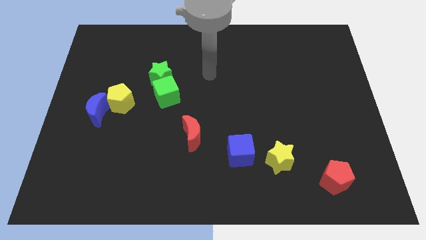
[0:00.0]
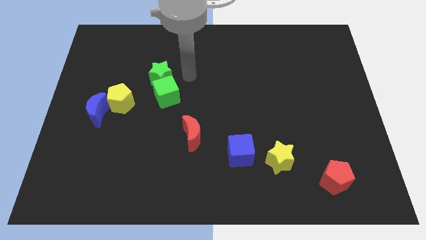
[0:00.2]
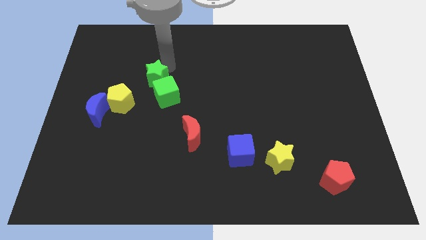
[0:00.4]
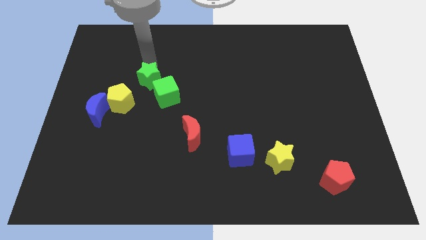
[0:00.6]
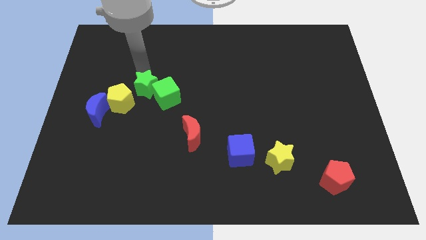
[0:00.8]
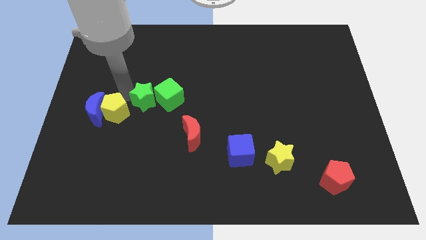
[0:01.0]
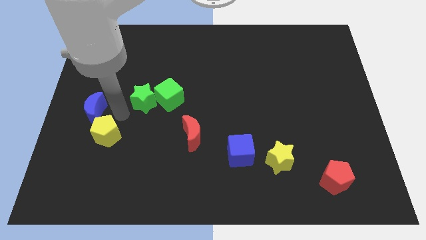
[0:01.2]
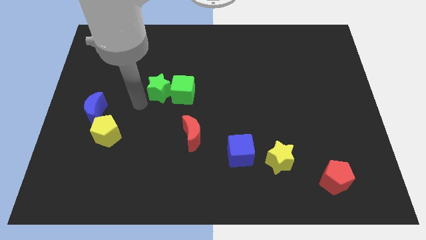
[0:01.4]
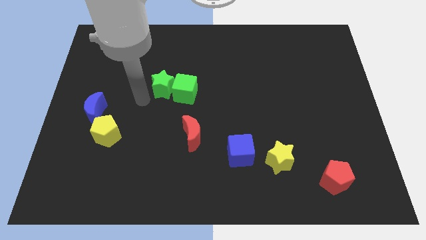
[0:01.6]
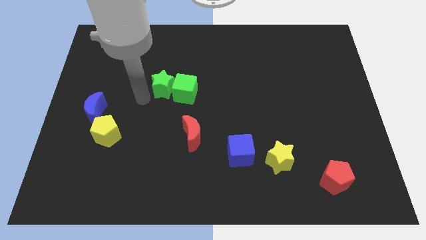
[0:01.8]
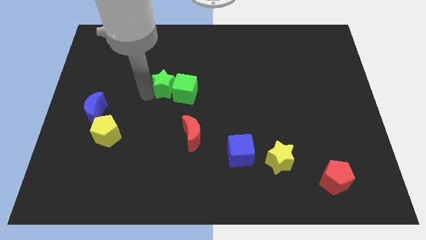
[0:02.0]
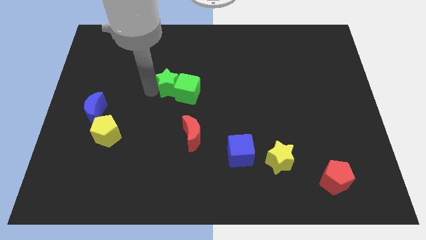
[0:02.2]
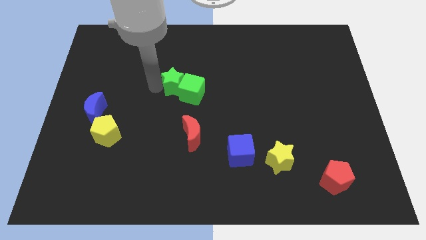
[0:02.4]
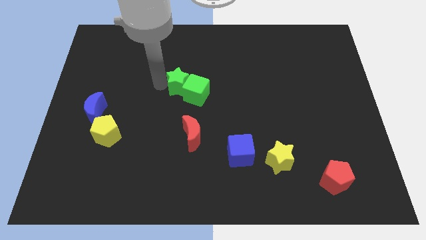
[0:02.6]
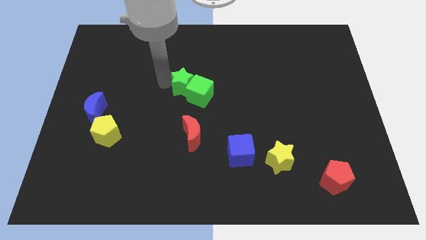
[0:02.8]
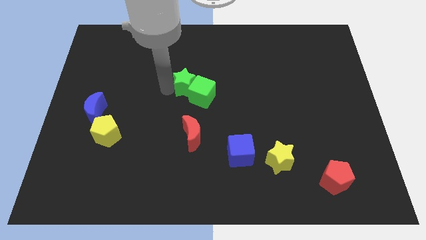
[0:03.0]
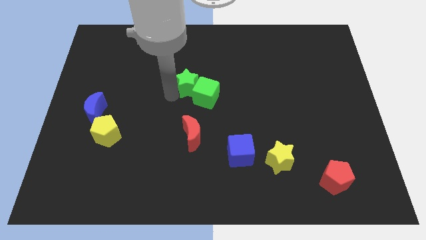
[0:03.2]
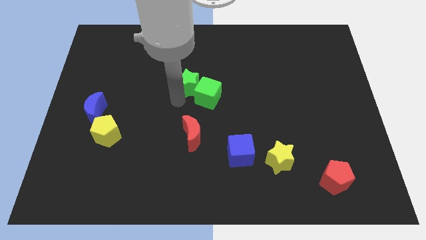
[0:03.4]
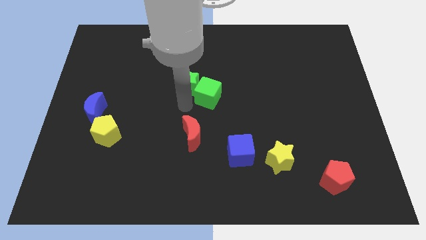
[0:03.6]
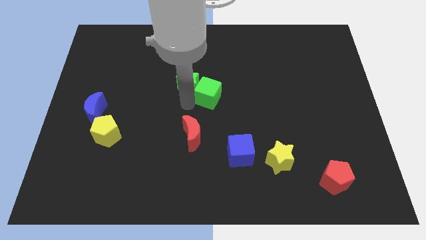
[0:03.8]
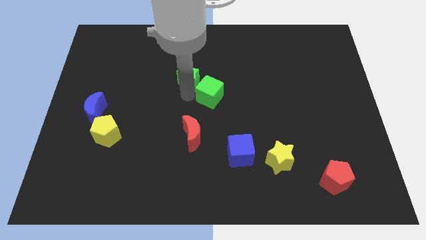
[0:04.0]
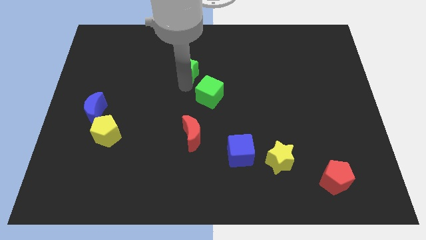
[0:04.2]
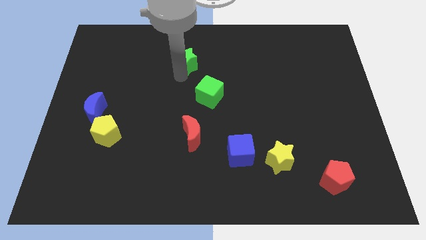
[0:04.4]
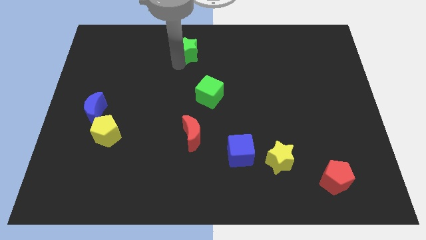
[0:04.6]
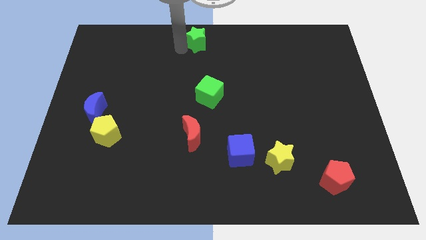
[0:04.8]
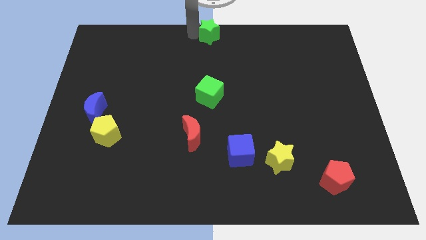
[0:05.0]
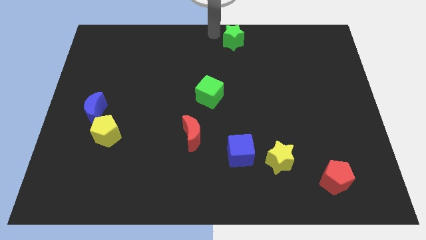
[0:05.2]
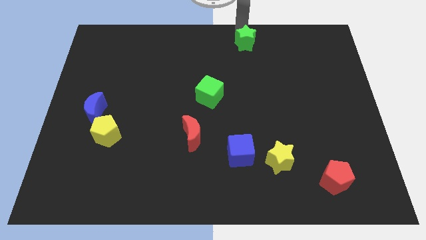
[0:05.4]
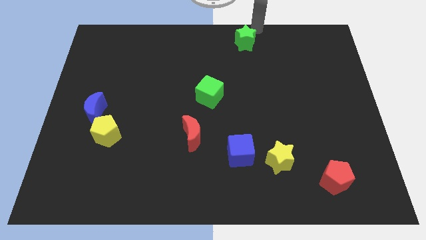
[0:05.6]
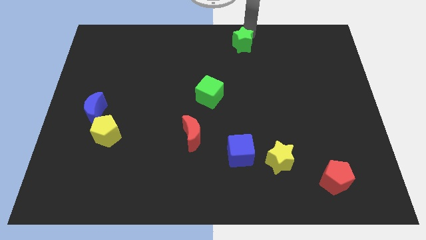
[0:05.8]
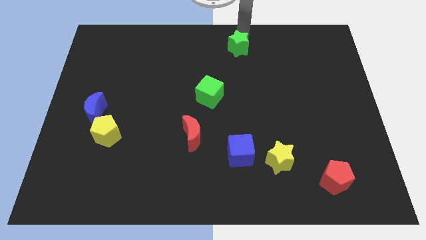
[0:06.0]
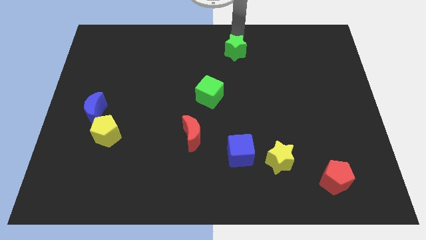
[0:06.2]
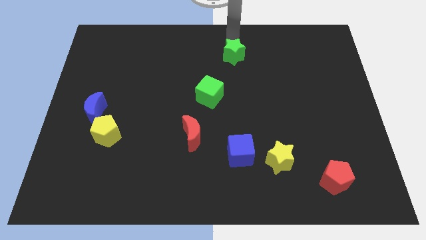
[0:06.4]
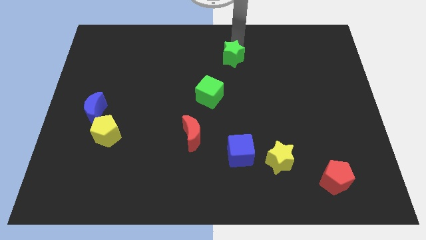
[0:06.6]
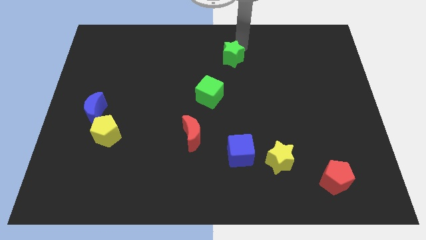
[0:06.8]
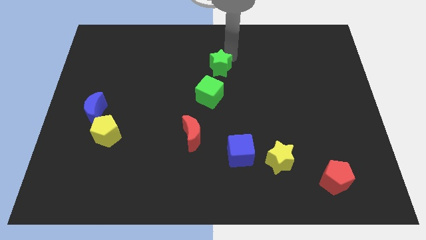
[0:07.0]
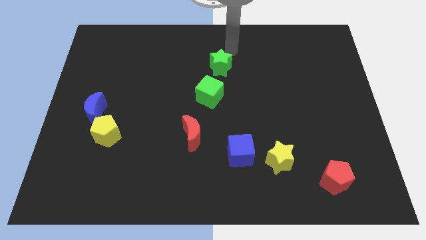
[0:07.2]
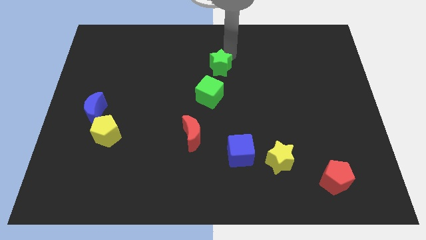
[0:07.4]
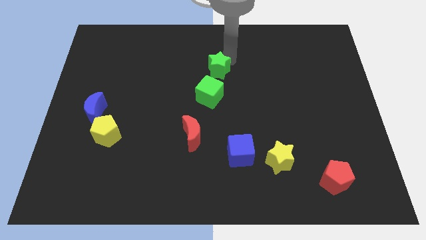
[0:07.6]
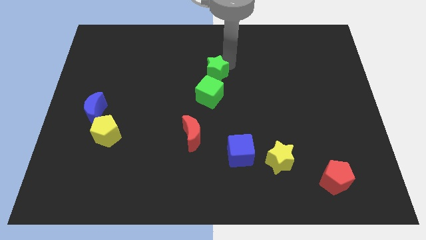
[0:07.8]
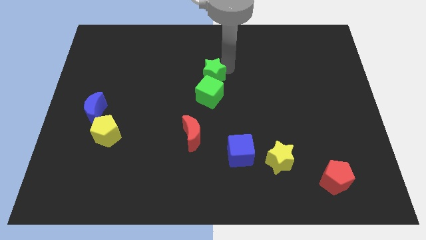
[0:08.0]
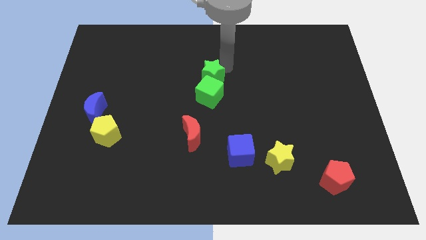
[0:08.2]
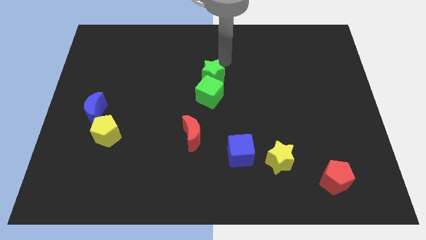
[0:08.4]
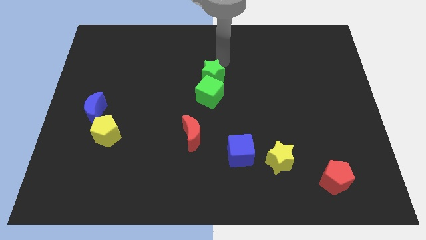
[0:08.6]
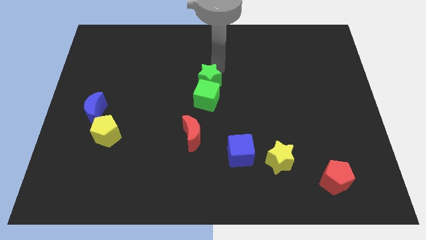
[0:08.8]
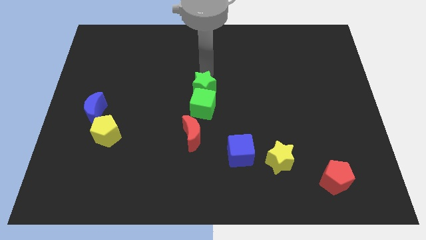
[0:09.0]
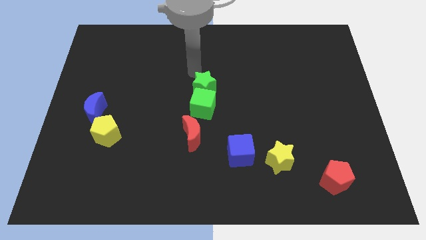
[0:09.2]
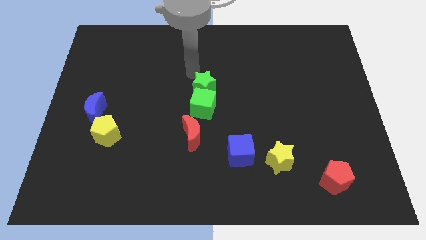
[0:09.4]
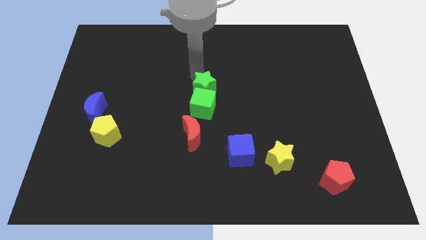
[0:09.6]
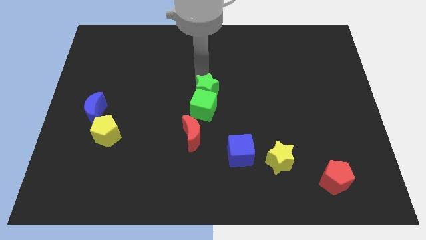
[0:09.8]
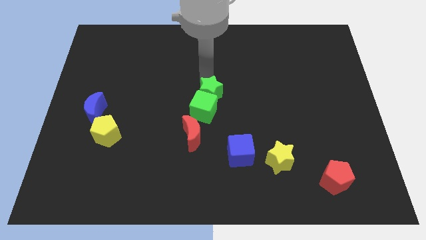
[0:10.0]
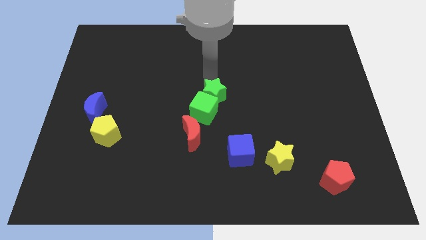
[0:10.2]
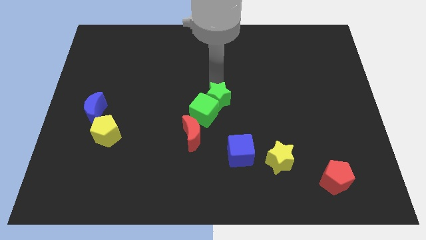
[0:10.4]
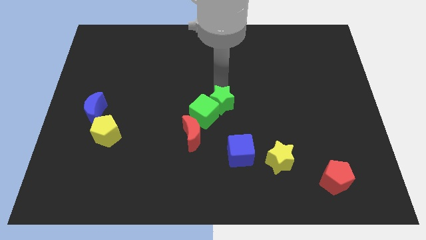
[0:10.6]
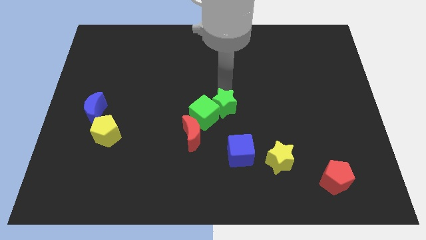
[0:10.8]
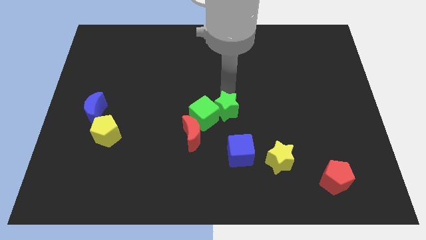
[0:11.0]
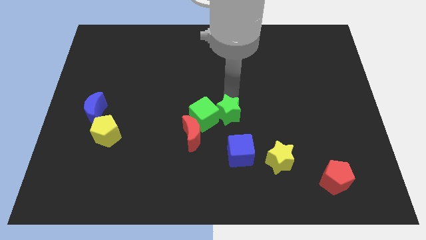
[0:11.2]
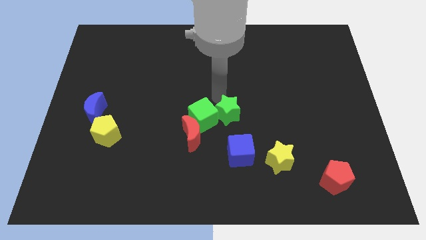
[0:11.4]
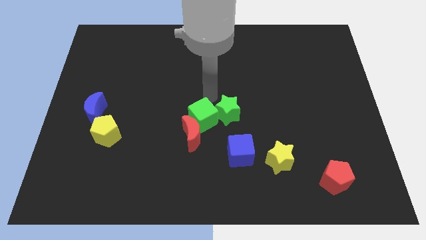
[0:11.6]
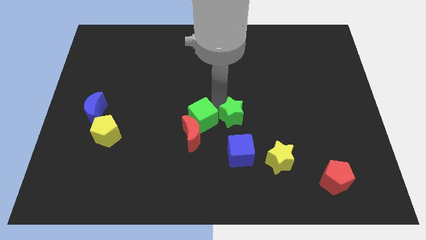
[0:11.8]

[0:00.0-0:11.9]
move the green star down and to the right diagonally

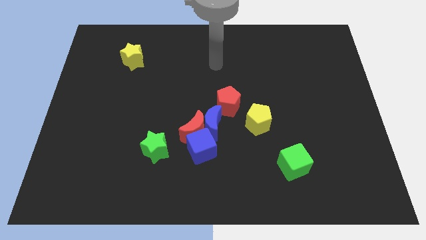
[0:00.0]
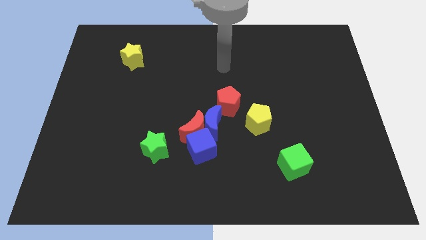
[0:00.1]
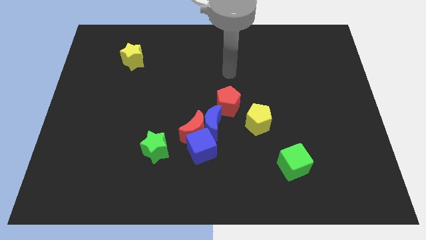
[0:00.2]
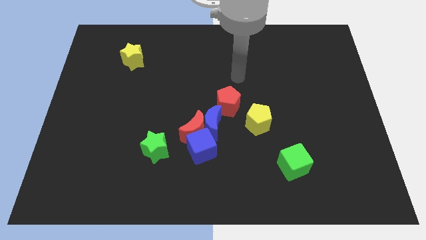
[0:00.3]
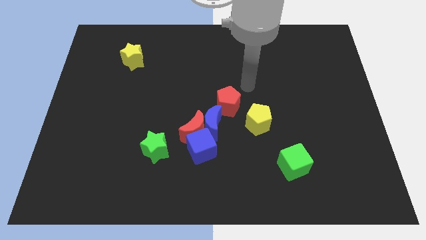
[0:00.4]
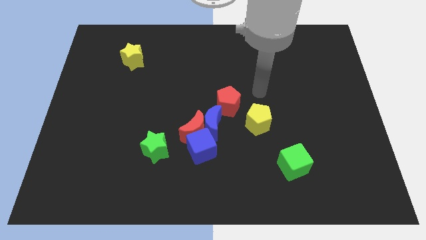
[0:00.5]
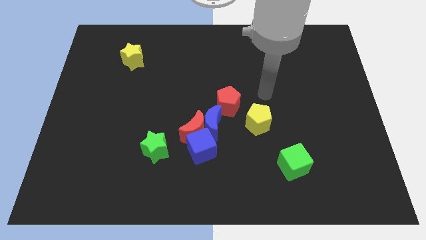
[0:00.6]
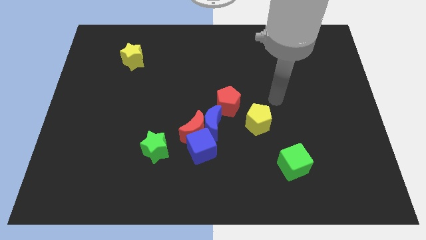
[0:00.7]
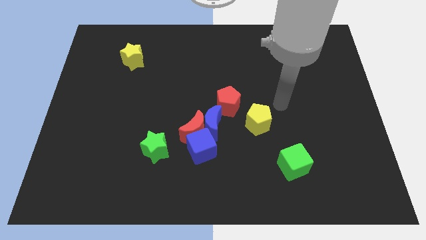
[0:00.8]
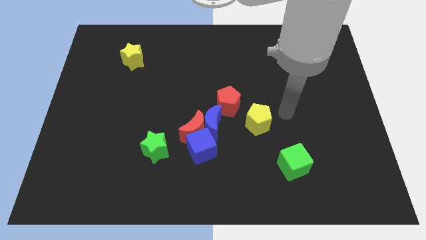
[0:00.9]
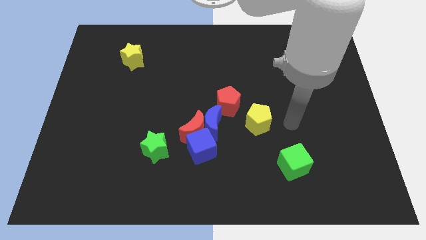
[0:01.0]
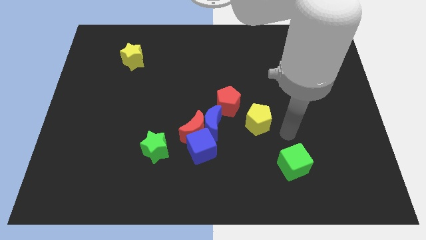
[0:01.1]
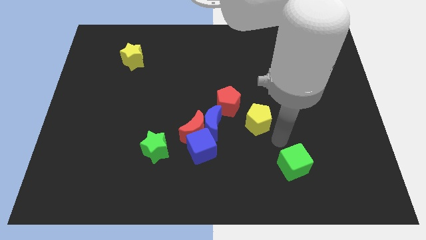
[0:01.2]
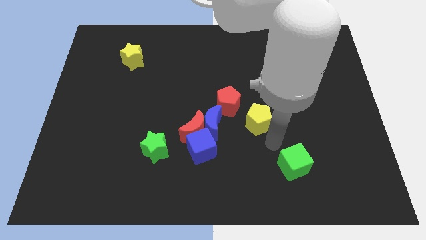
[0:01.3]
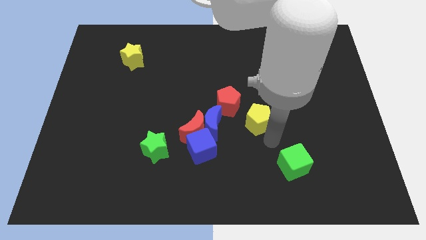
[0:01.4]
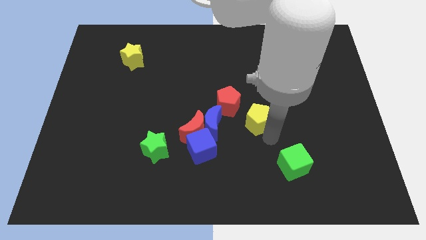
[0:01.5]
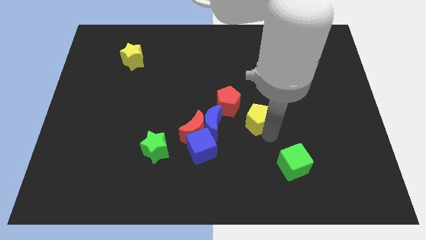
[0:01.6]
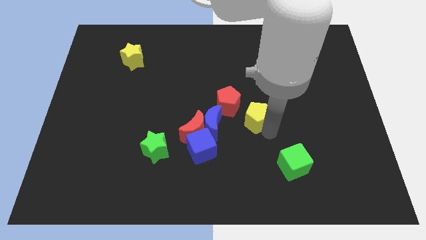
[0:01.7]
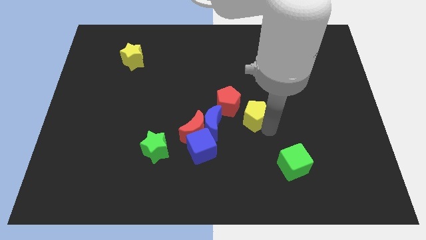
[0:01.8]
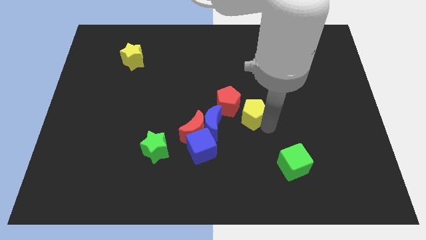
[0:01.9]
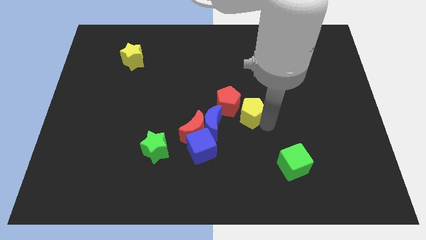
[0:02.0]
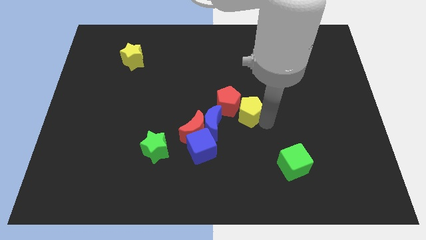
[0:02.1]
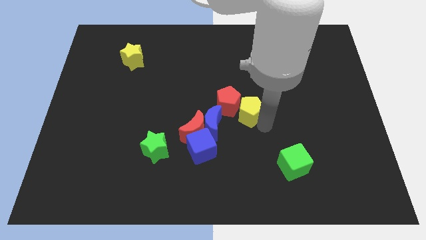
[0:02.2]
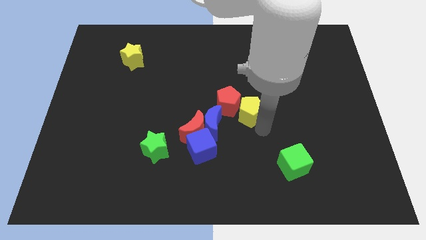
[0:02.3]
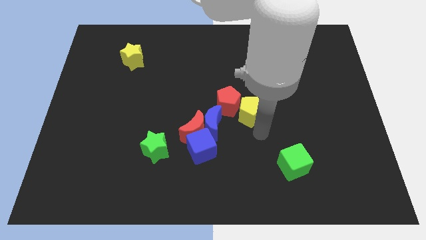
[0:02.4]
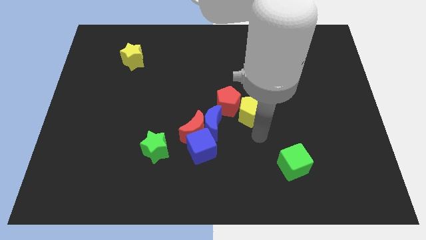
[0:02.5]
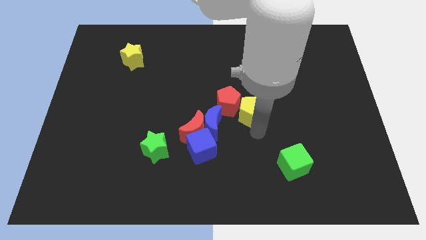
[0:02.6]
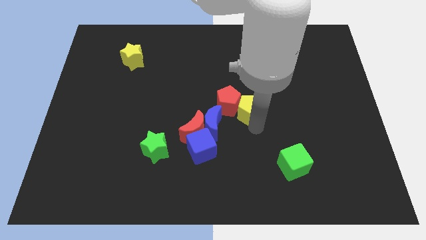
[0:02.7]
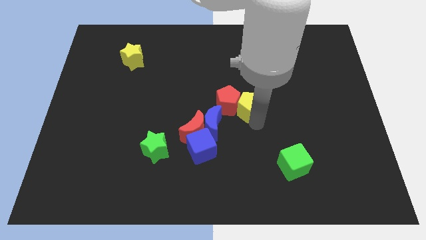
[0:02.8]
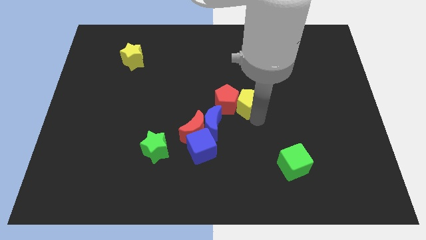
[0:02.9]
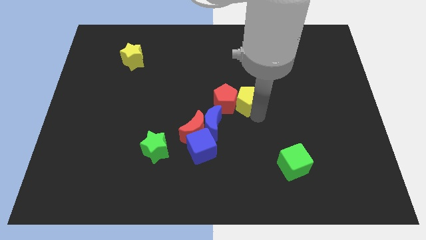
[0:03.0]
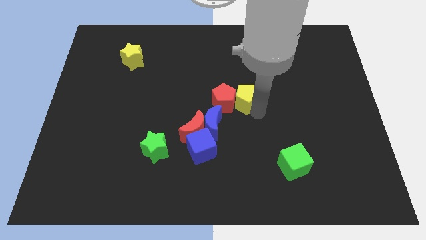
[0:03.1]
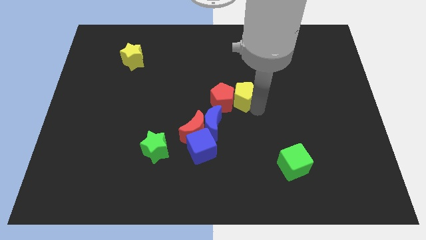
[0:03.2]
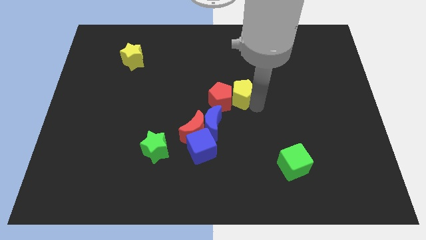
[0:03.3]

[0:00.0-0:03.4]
move the yellow pentagon diagonally up and left slightly
